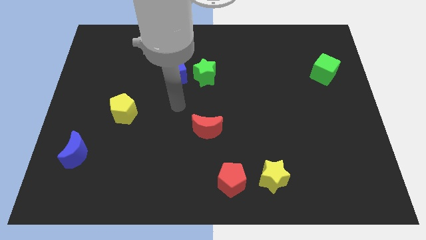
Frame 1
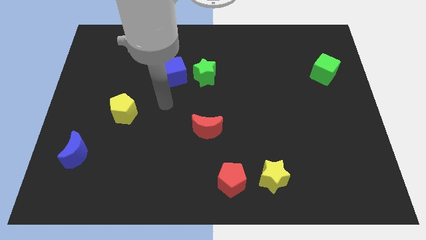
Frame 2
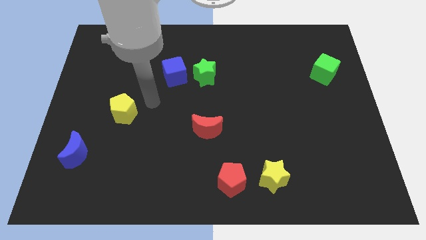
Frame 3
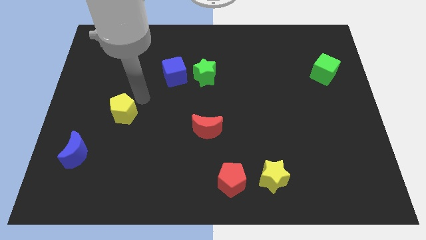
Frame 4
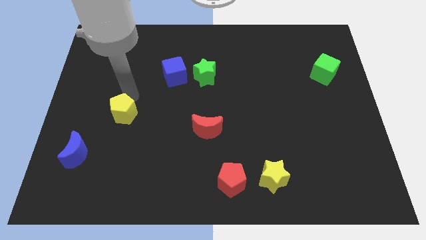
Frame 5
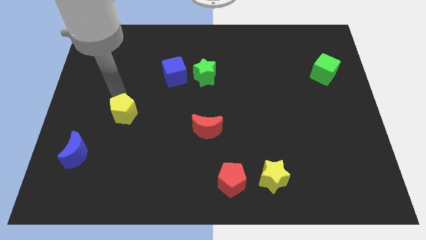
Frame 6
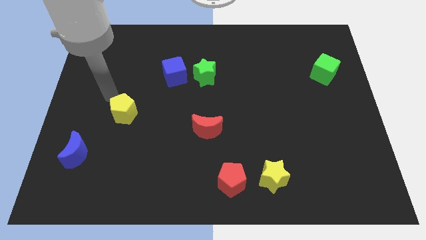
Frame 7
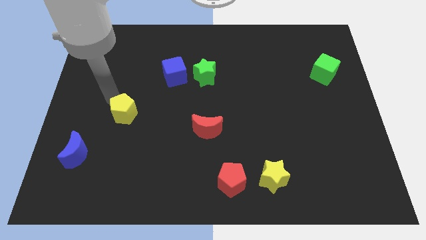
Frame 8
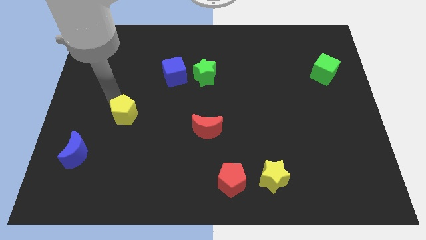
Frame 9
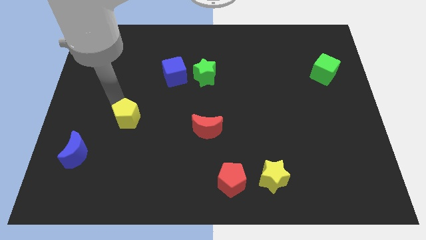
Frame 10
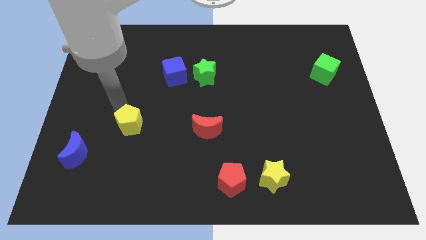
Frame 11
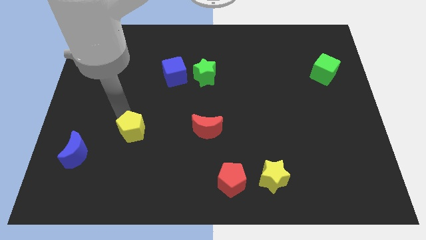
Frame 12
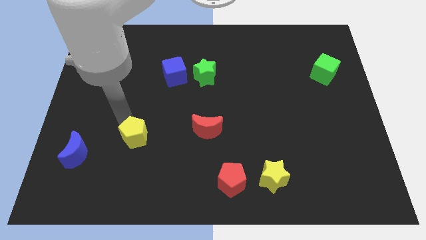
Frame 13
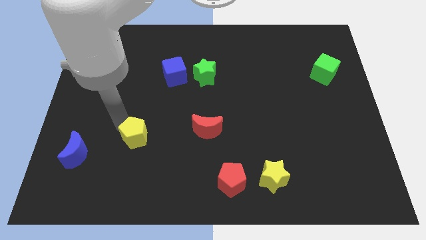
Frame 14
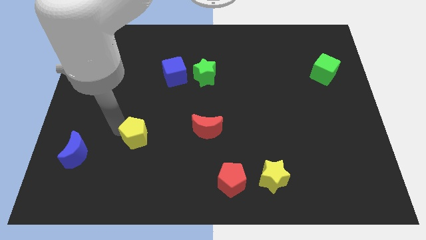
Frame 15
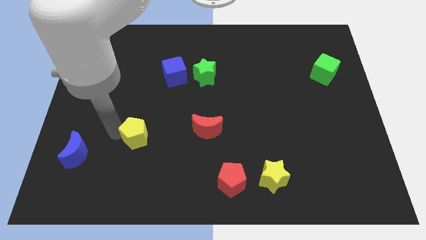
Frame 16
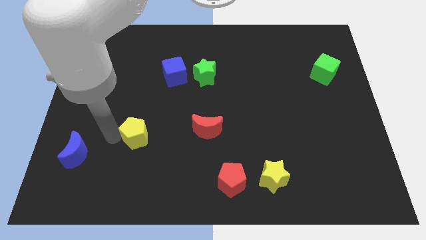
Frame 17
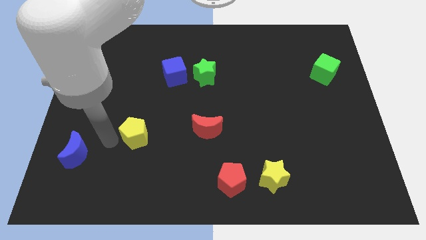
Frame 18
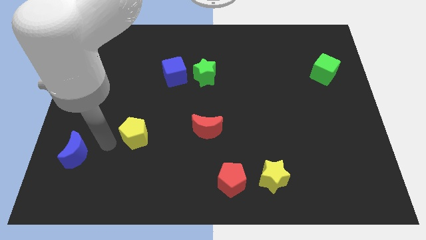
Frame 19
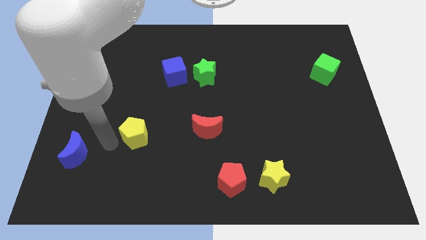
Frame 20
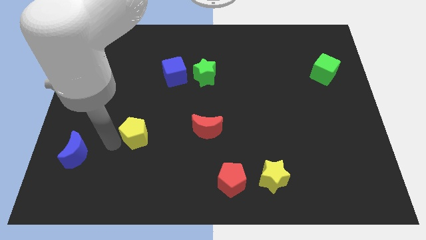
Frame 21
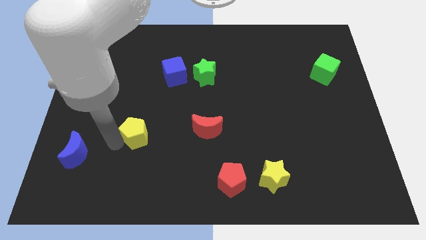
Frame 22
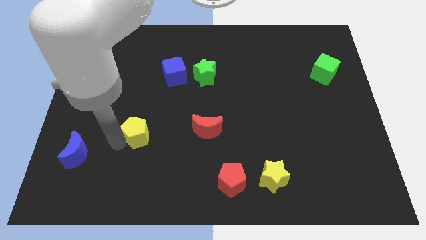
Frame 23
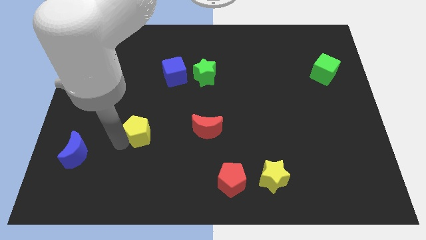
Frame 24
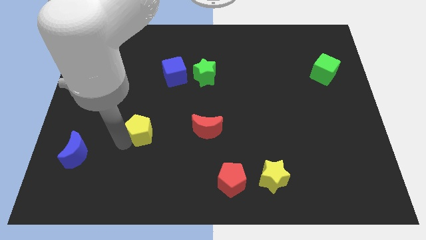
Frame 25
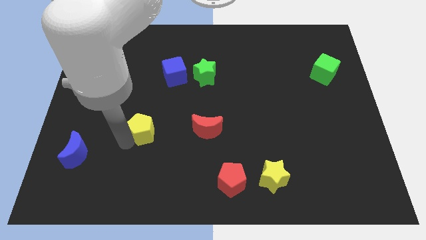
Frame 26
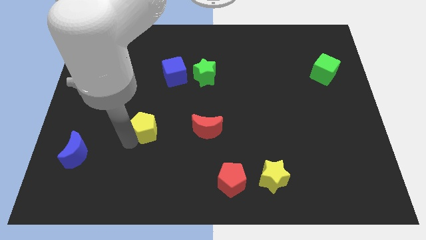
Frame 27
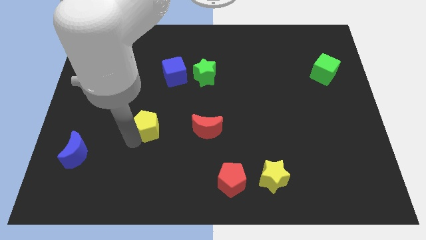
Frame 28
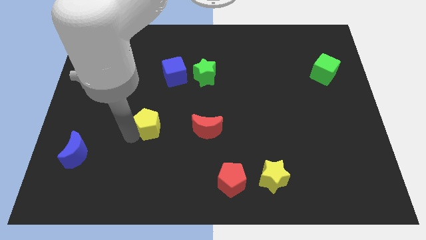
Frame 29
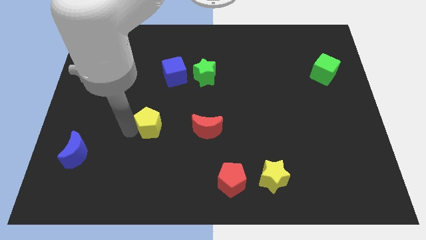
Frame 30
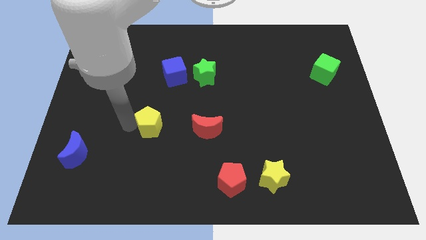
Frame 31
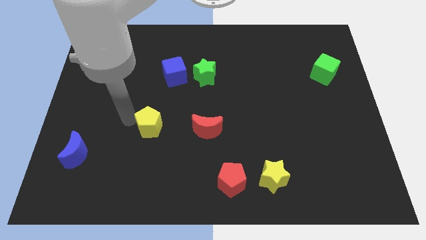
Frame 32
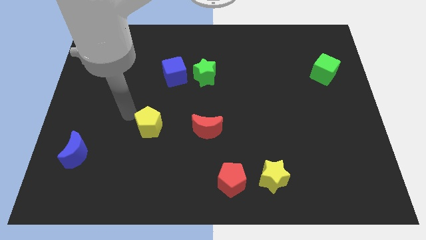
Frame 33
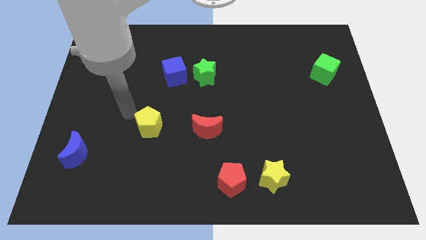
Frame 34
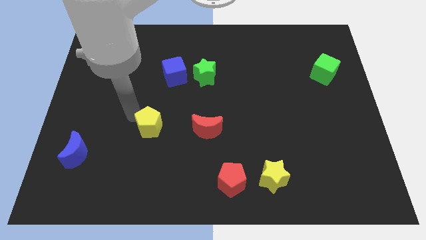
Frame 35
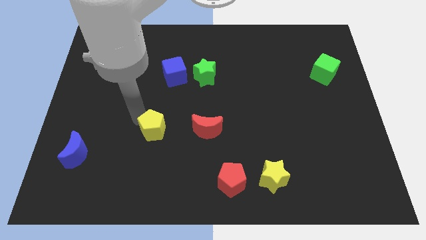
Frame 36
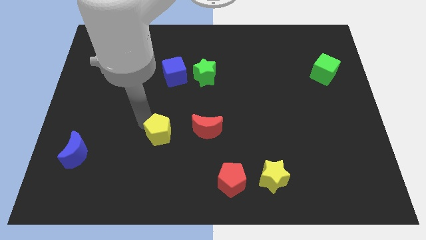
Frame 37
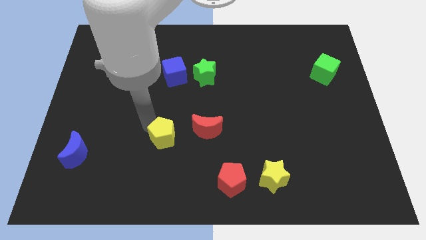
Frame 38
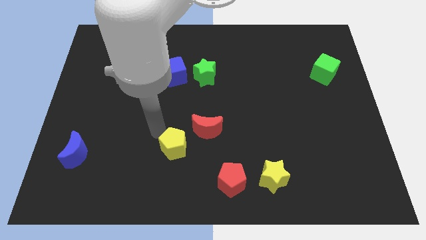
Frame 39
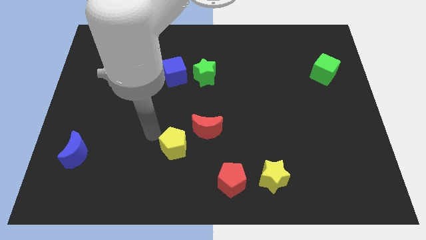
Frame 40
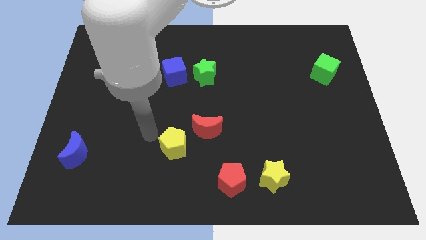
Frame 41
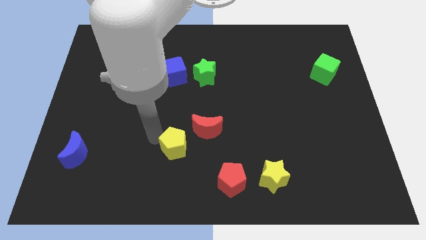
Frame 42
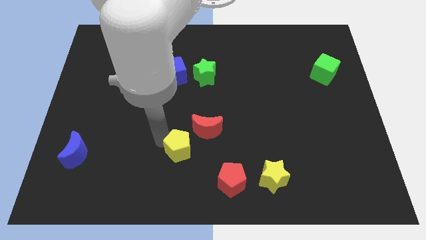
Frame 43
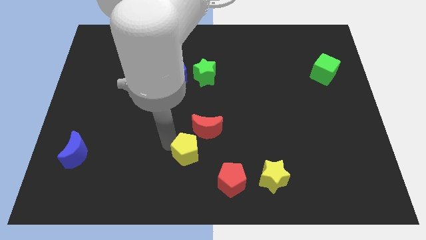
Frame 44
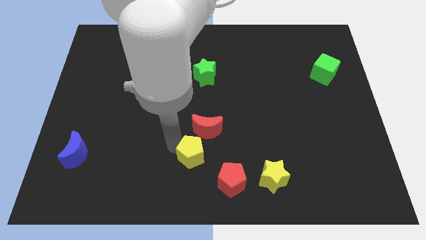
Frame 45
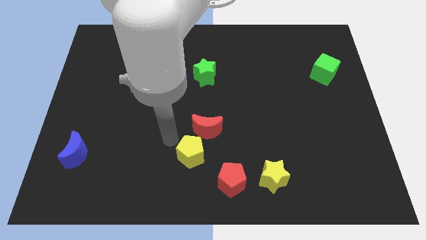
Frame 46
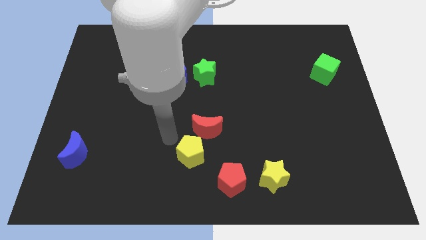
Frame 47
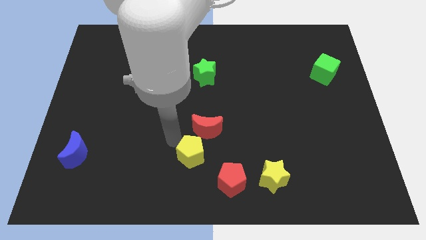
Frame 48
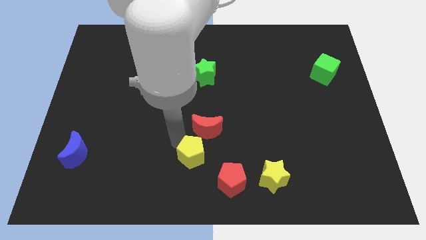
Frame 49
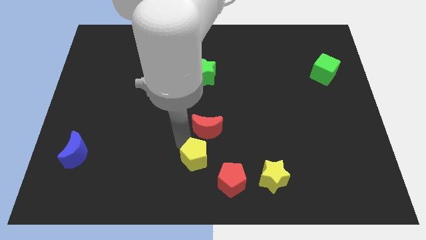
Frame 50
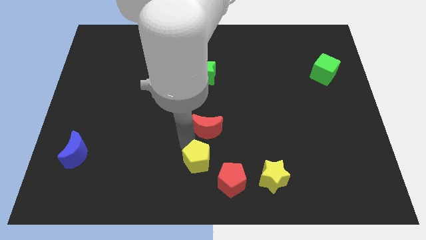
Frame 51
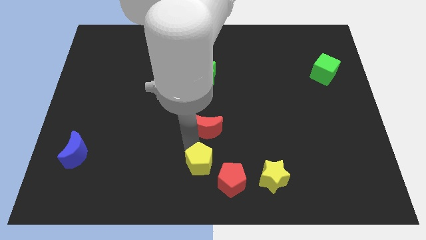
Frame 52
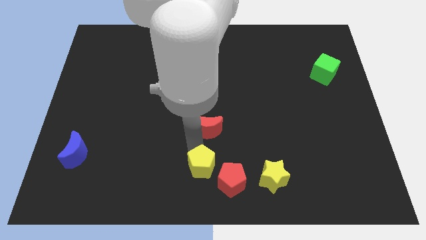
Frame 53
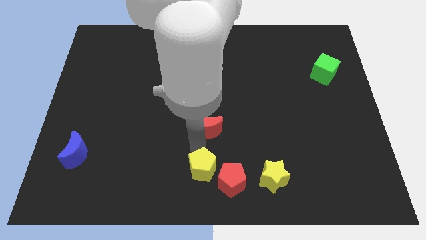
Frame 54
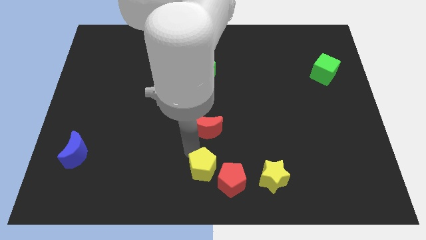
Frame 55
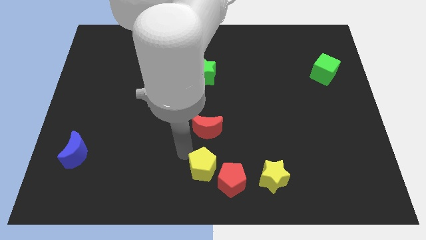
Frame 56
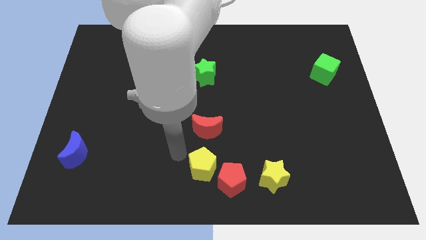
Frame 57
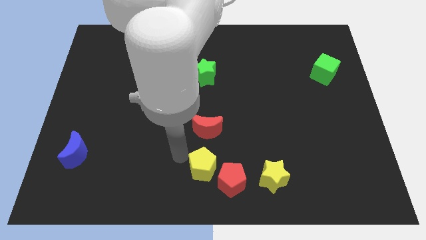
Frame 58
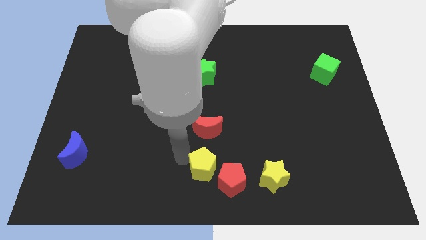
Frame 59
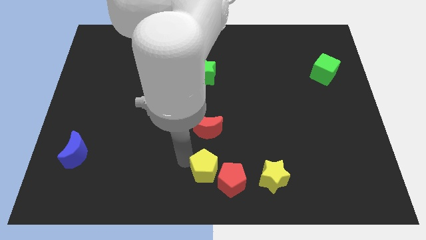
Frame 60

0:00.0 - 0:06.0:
move the yellow pentagon to the red pentagon

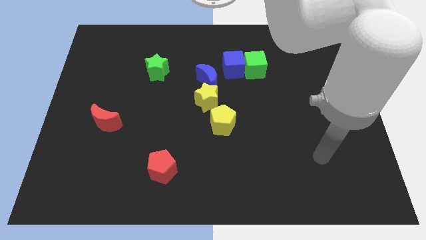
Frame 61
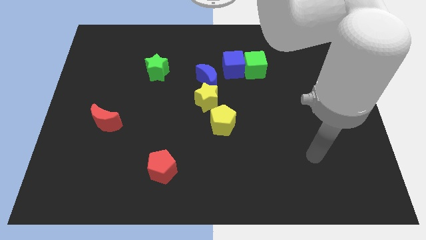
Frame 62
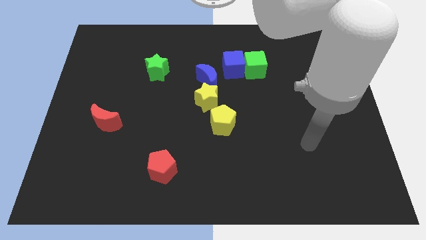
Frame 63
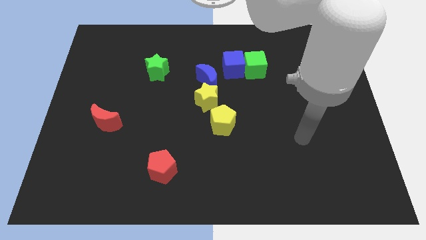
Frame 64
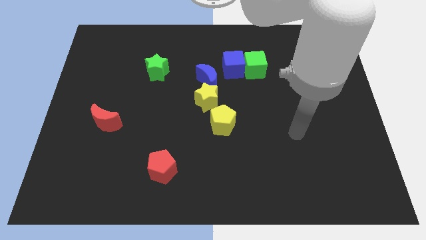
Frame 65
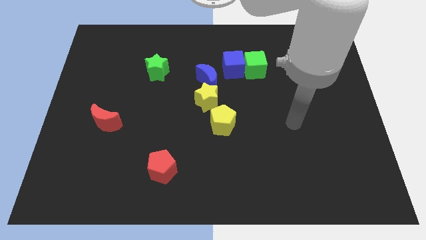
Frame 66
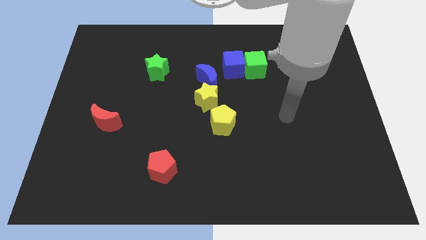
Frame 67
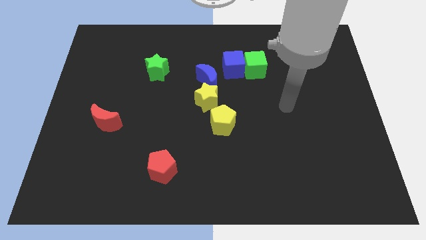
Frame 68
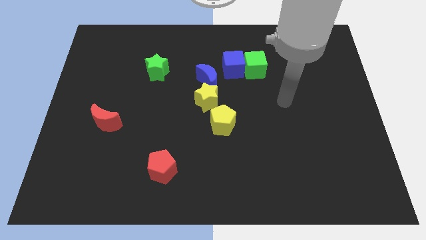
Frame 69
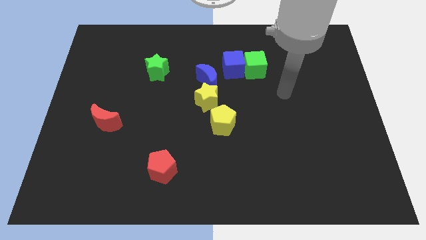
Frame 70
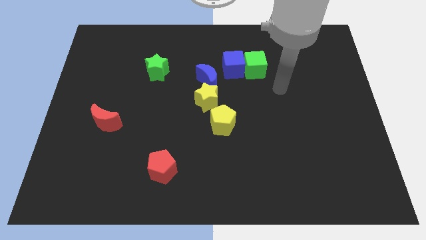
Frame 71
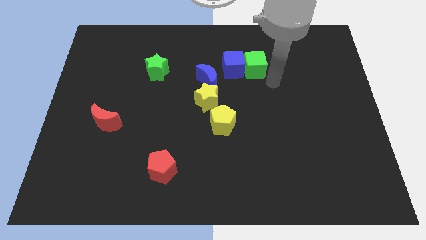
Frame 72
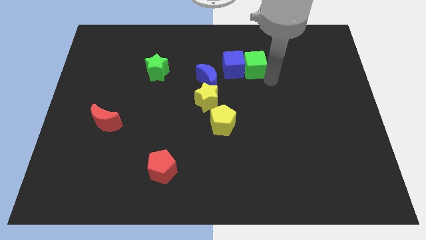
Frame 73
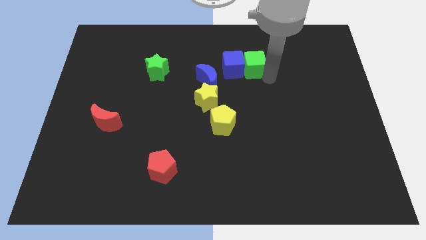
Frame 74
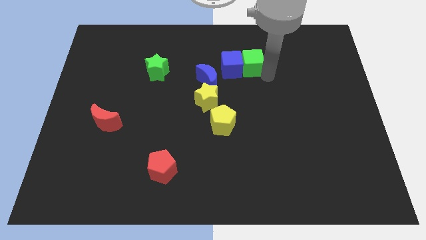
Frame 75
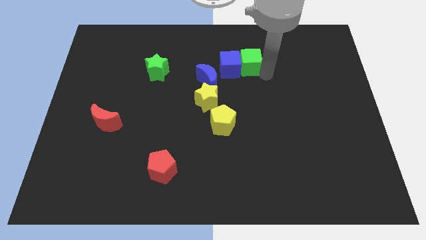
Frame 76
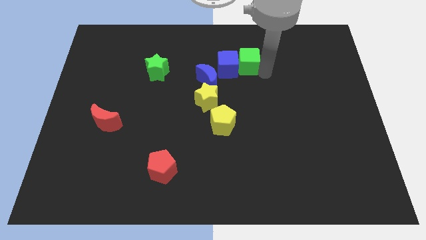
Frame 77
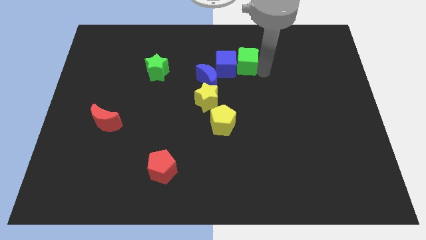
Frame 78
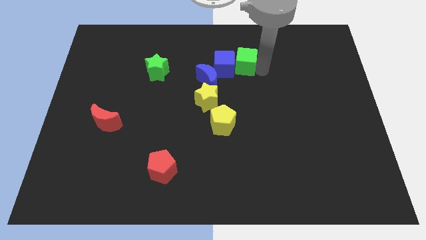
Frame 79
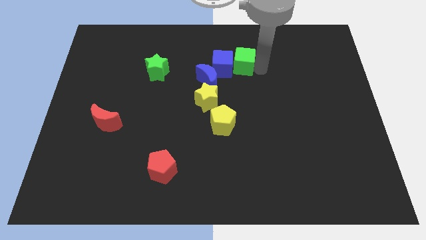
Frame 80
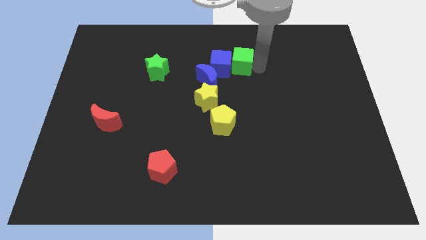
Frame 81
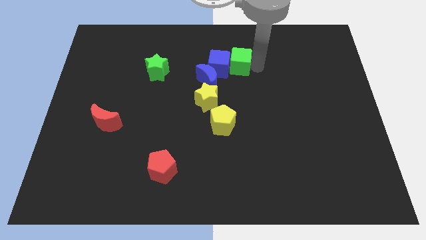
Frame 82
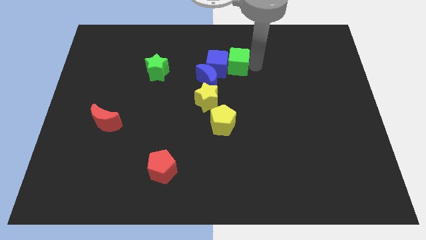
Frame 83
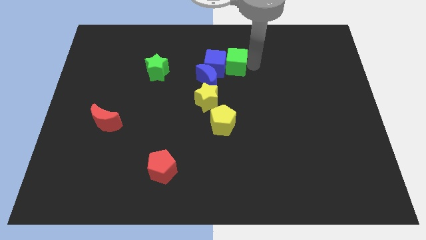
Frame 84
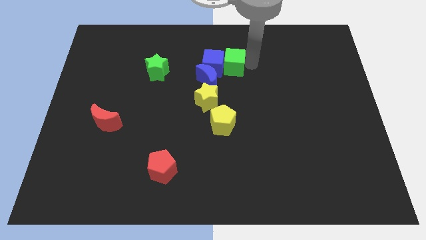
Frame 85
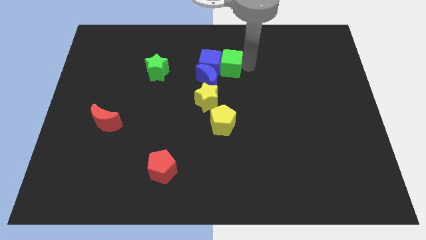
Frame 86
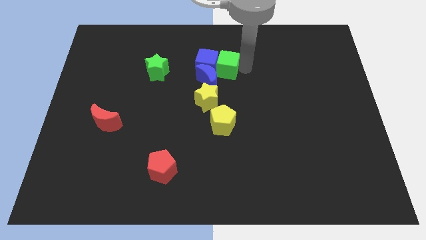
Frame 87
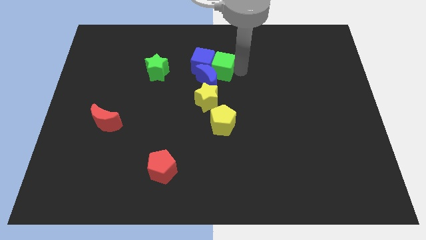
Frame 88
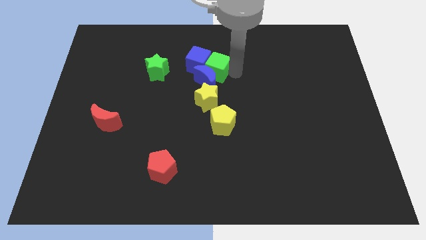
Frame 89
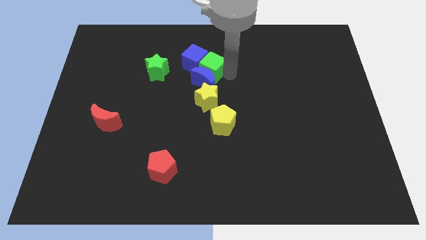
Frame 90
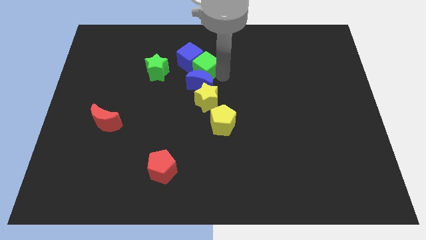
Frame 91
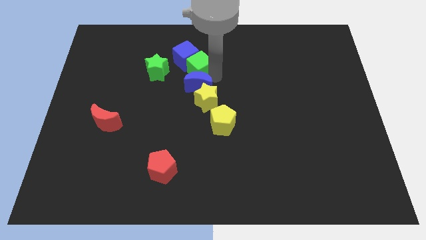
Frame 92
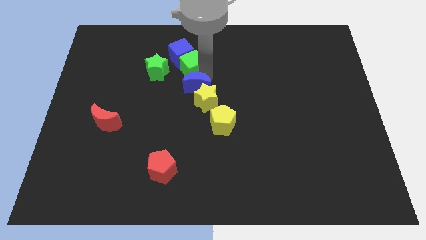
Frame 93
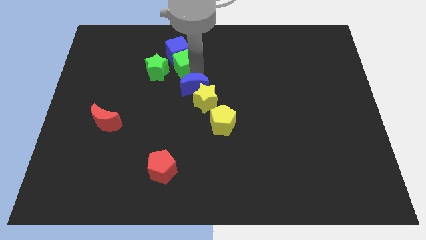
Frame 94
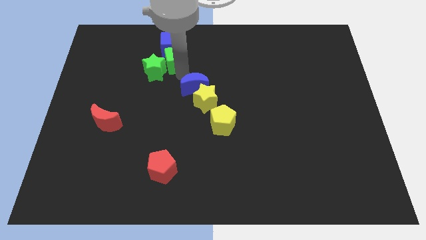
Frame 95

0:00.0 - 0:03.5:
push the green cube close to the green star
